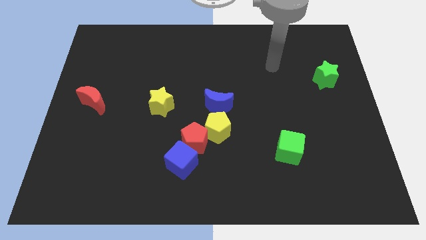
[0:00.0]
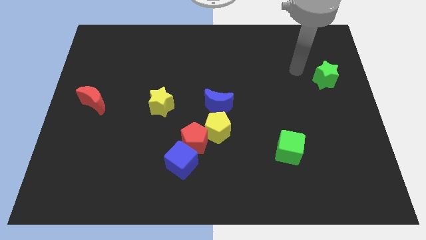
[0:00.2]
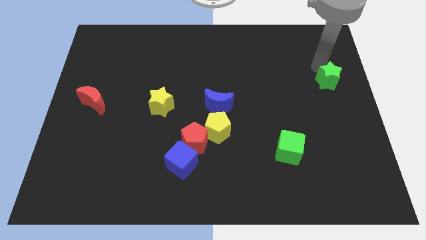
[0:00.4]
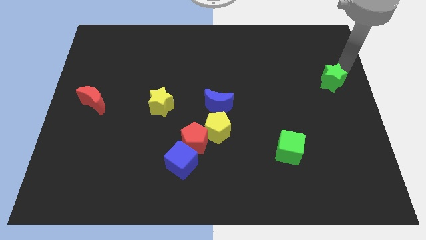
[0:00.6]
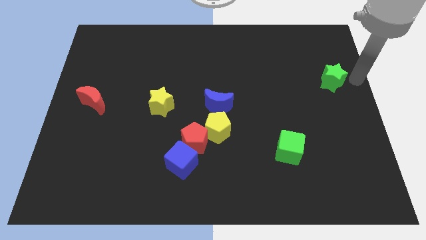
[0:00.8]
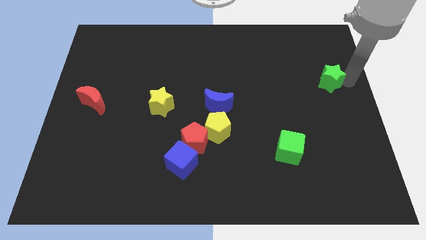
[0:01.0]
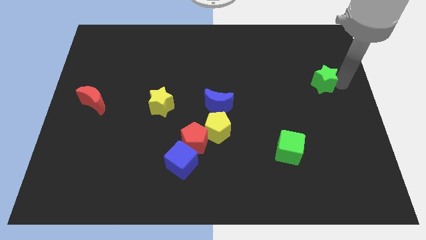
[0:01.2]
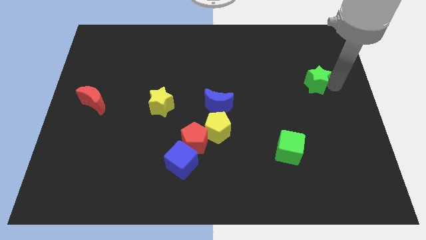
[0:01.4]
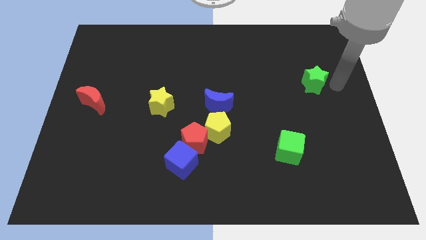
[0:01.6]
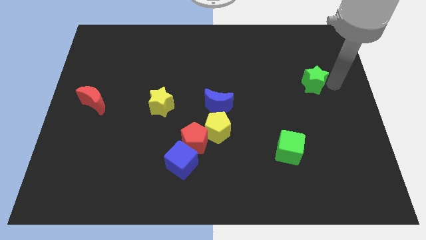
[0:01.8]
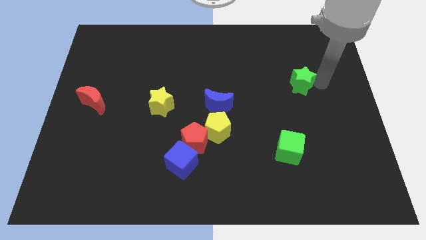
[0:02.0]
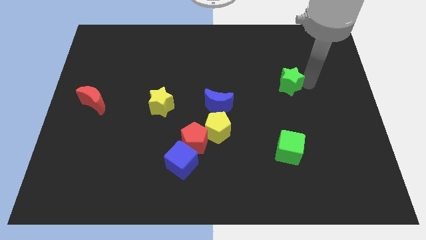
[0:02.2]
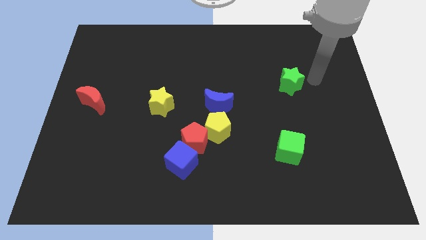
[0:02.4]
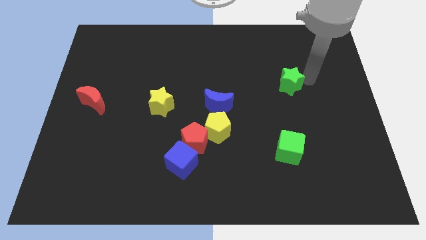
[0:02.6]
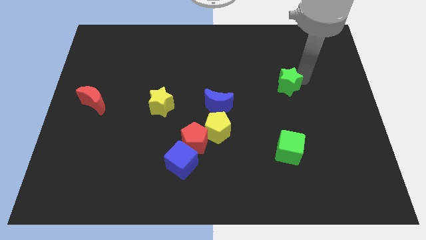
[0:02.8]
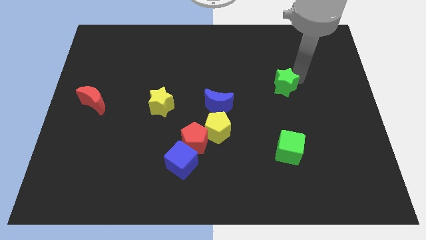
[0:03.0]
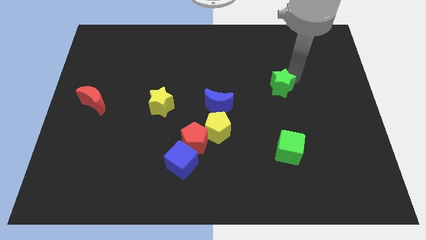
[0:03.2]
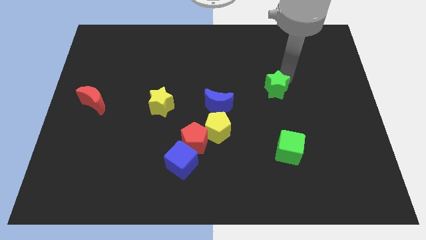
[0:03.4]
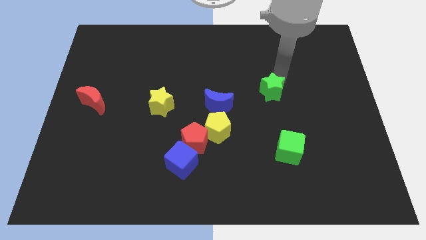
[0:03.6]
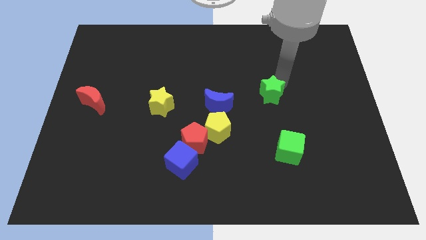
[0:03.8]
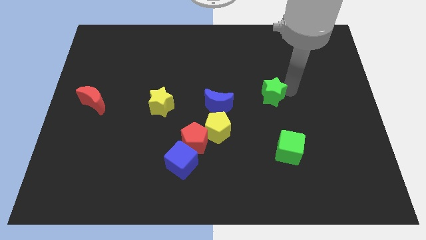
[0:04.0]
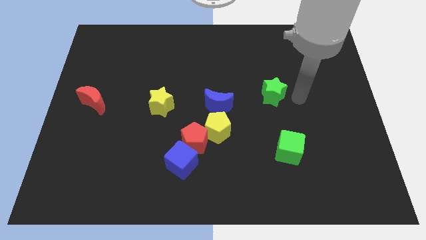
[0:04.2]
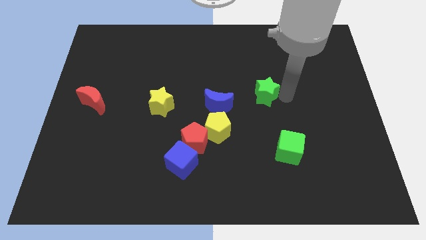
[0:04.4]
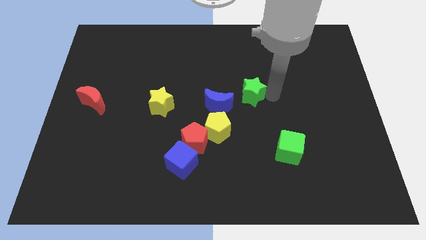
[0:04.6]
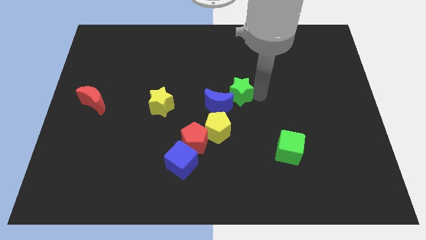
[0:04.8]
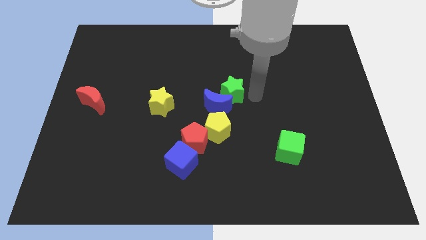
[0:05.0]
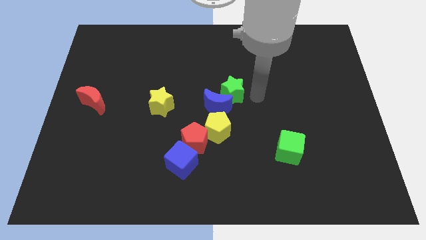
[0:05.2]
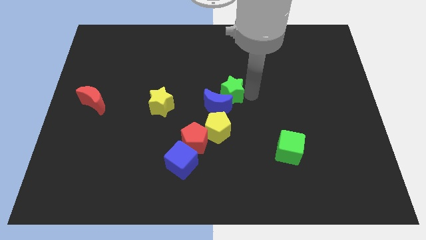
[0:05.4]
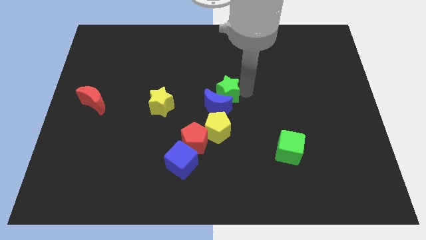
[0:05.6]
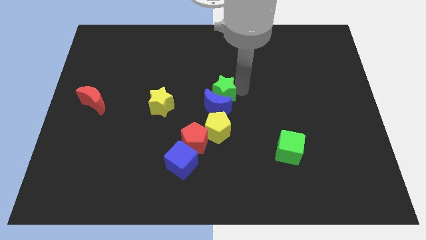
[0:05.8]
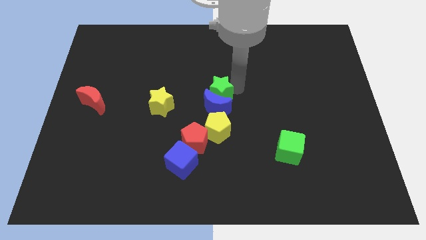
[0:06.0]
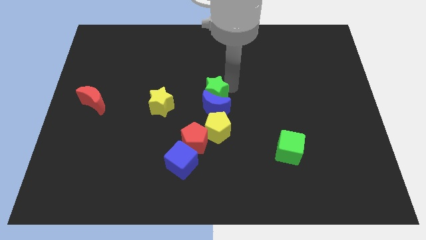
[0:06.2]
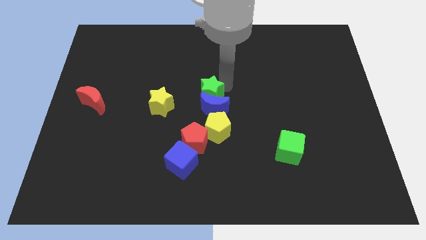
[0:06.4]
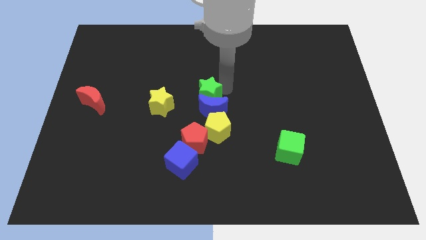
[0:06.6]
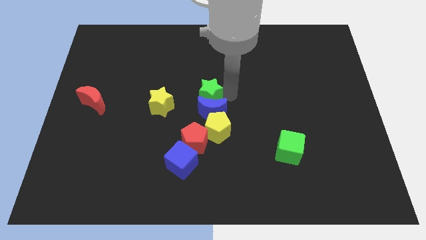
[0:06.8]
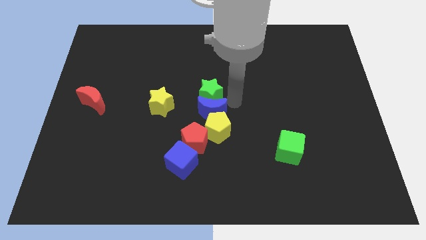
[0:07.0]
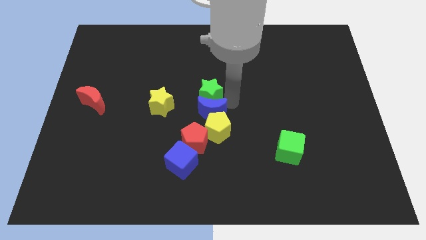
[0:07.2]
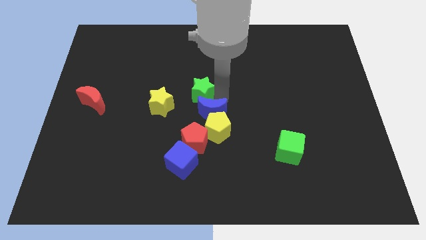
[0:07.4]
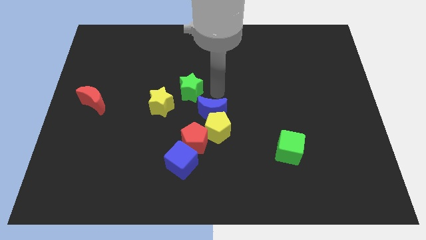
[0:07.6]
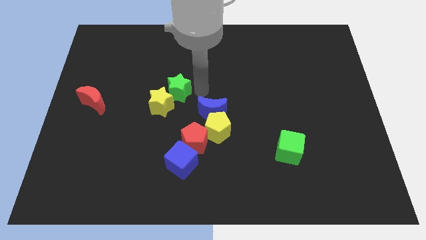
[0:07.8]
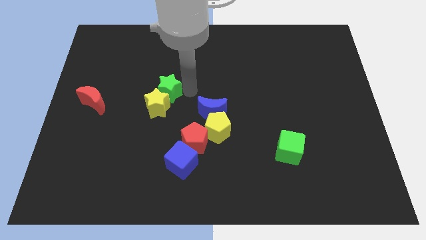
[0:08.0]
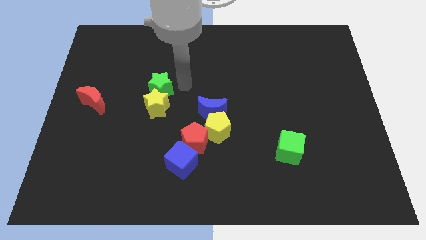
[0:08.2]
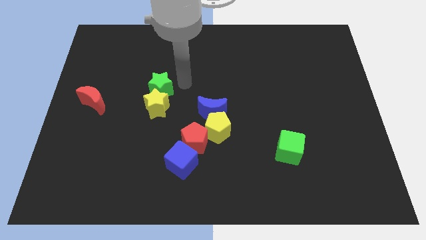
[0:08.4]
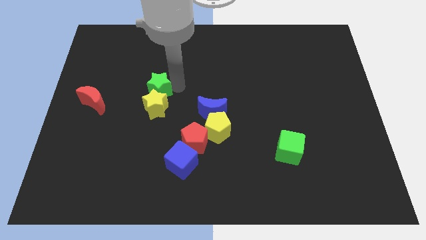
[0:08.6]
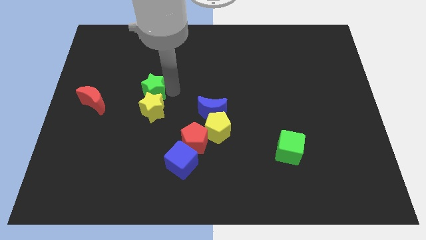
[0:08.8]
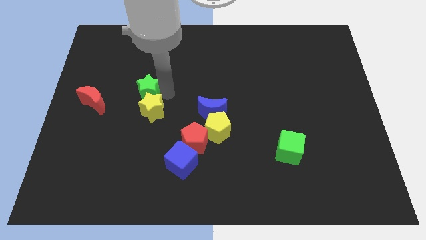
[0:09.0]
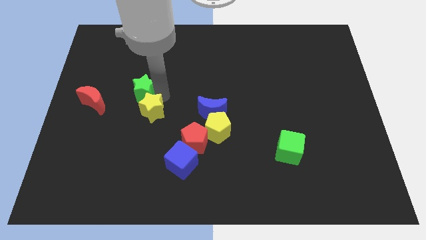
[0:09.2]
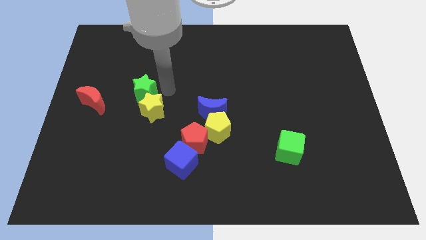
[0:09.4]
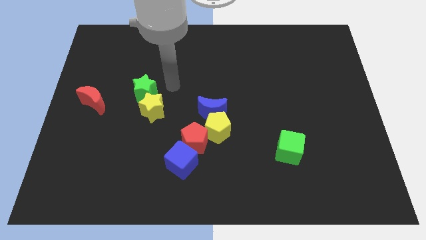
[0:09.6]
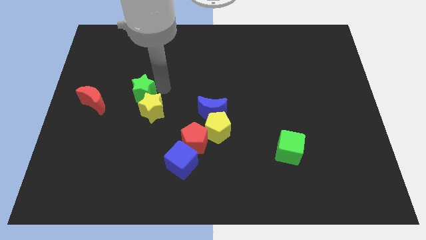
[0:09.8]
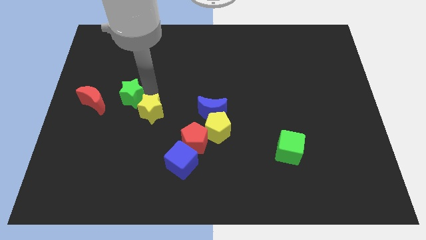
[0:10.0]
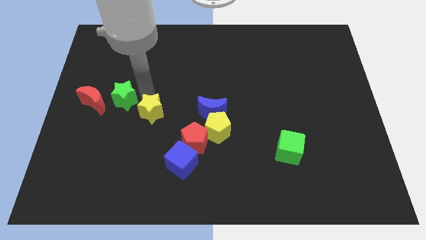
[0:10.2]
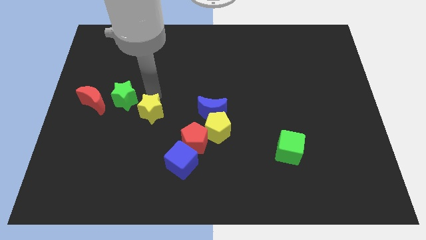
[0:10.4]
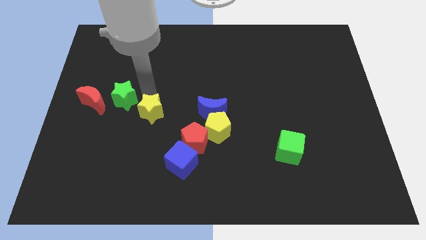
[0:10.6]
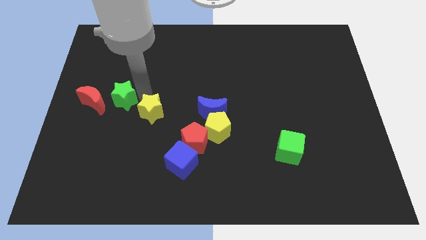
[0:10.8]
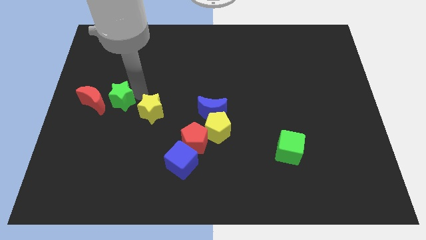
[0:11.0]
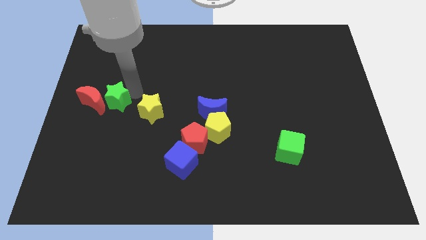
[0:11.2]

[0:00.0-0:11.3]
slide the green star close to the red moon

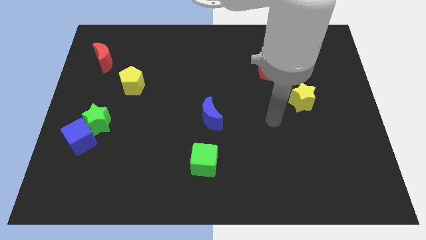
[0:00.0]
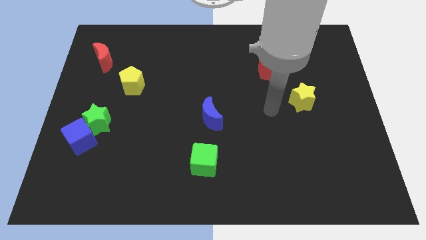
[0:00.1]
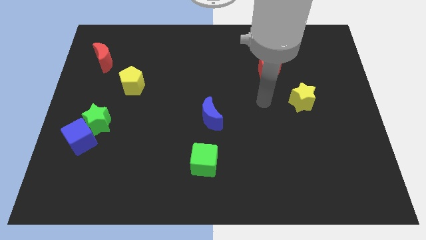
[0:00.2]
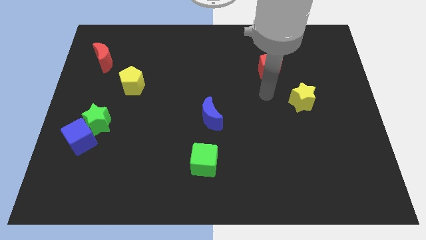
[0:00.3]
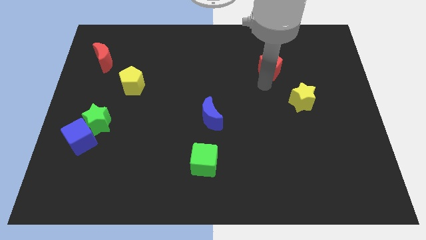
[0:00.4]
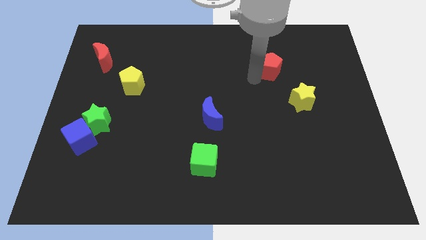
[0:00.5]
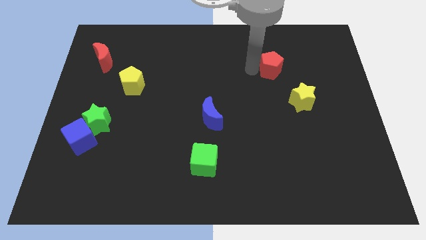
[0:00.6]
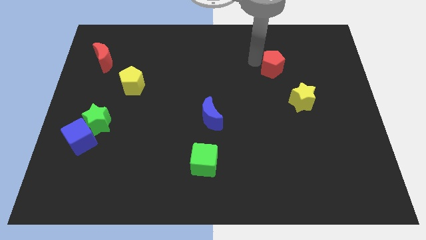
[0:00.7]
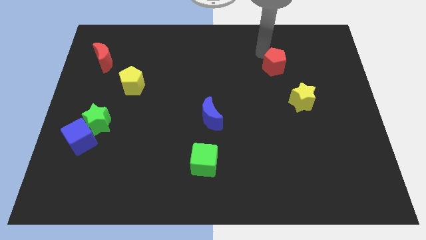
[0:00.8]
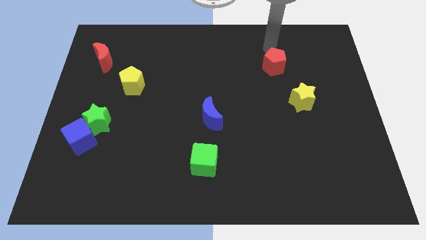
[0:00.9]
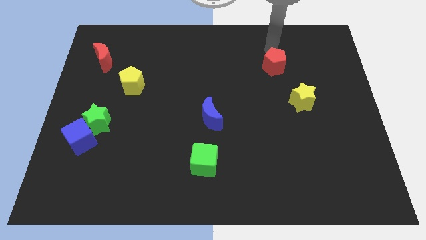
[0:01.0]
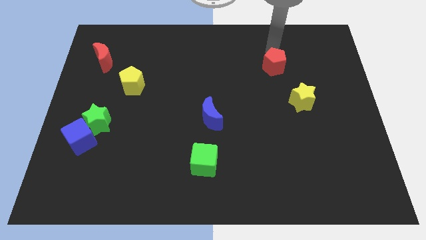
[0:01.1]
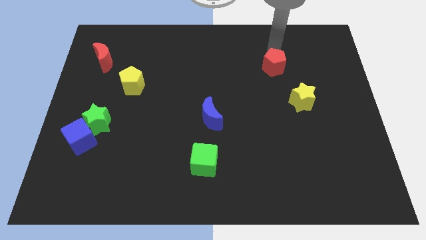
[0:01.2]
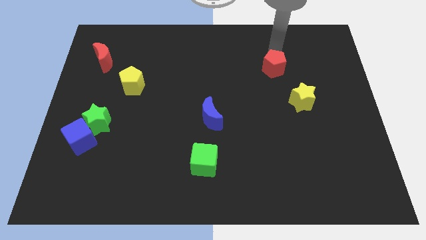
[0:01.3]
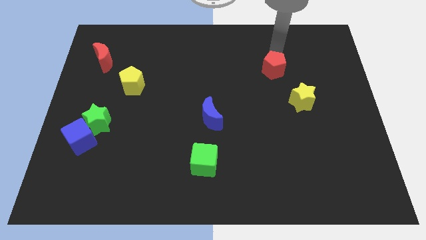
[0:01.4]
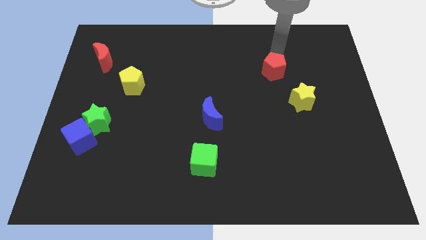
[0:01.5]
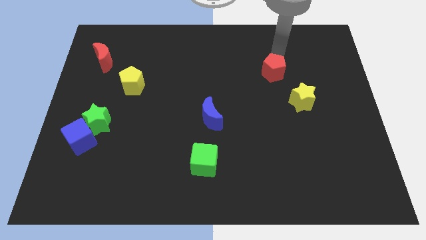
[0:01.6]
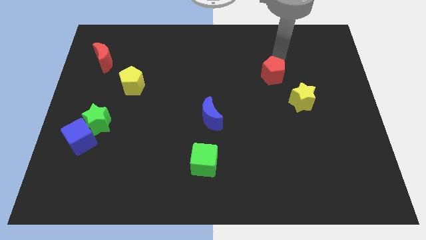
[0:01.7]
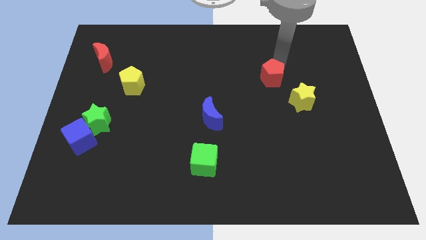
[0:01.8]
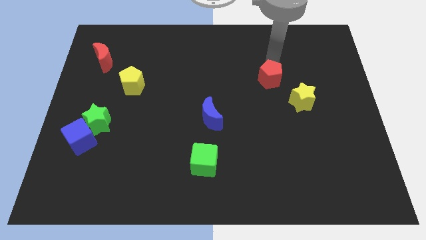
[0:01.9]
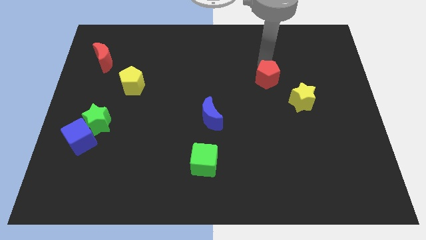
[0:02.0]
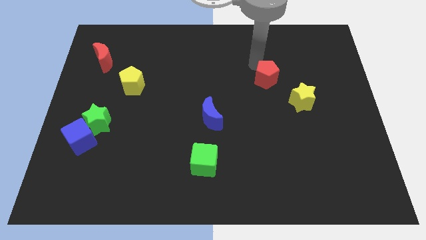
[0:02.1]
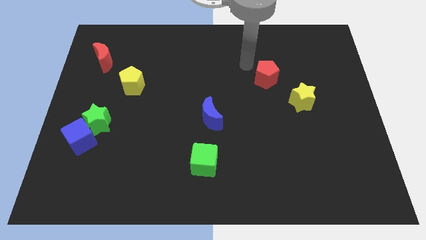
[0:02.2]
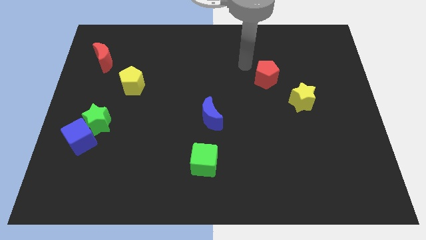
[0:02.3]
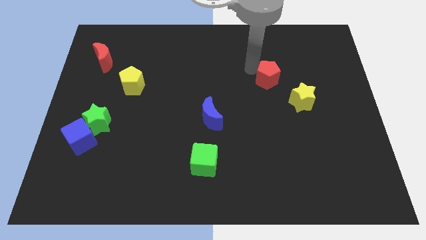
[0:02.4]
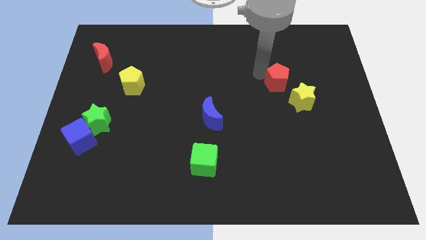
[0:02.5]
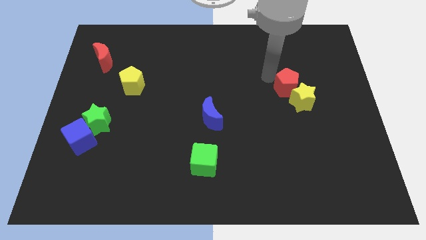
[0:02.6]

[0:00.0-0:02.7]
push the red pentagon to the yellow star
